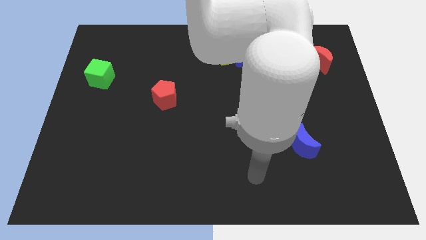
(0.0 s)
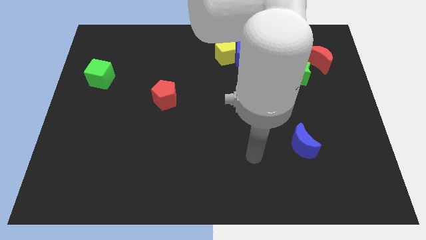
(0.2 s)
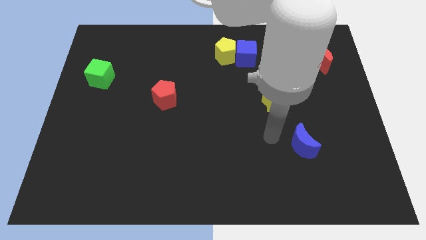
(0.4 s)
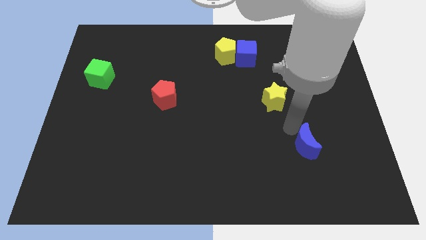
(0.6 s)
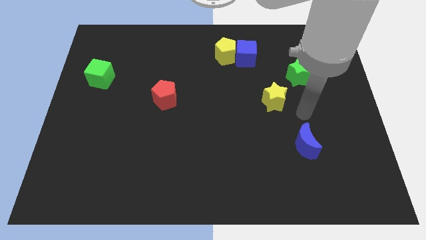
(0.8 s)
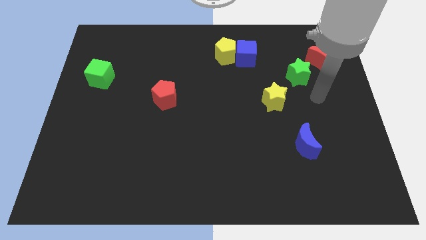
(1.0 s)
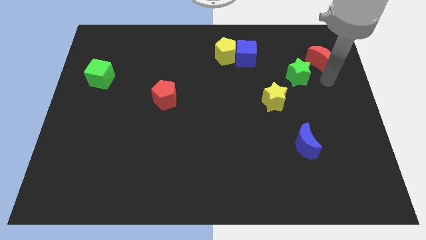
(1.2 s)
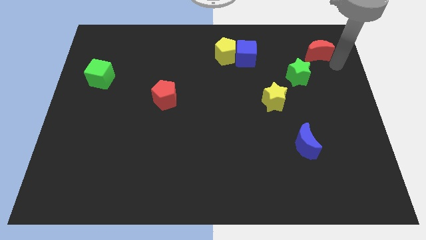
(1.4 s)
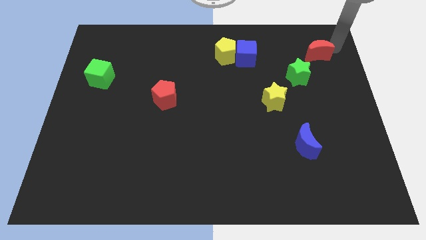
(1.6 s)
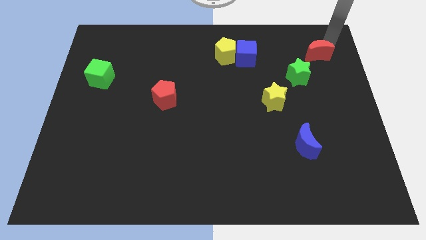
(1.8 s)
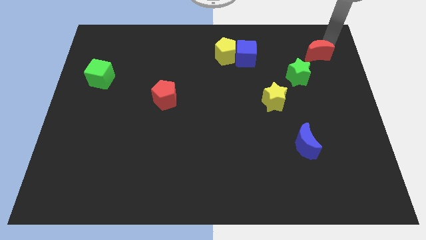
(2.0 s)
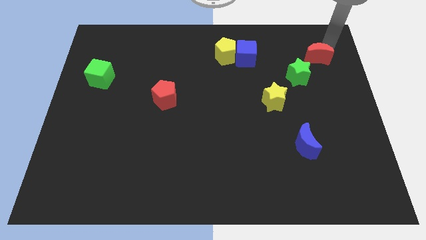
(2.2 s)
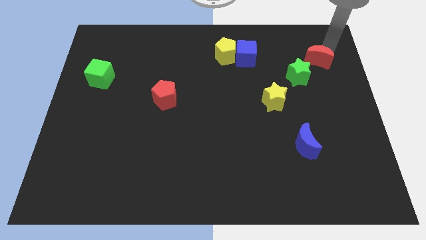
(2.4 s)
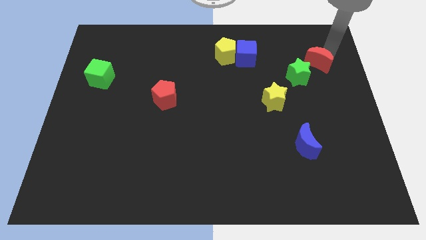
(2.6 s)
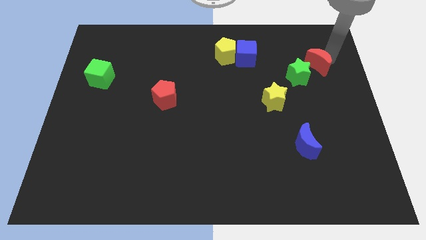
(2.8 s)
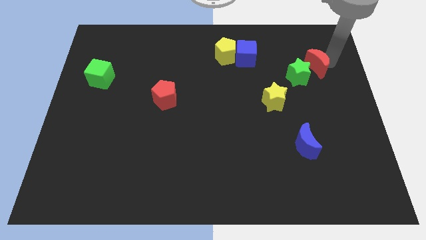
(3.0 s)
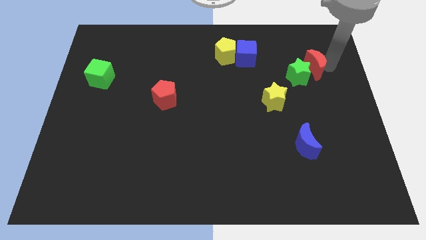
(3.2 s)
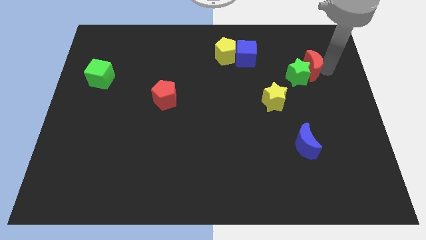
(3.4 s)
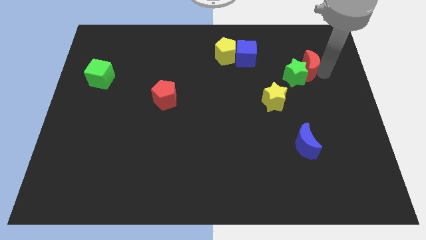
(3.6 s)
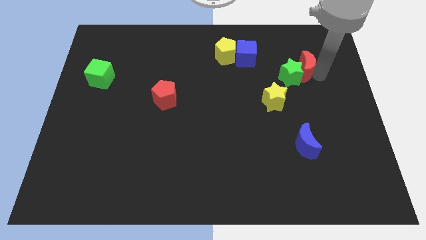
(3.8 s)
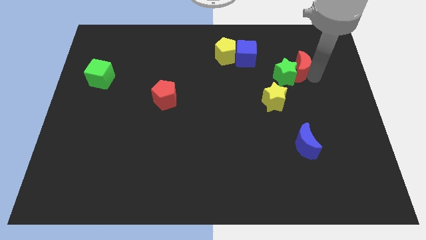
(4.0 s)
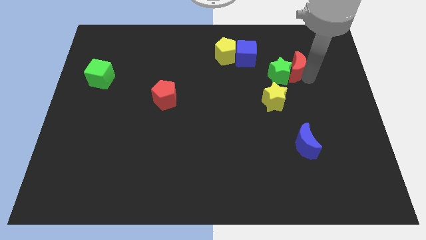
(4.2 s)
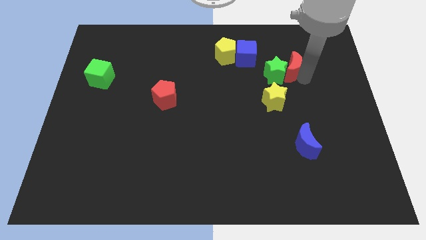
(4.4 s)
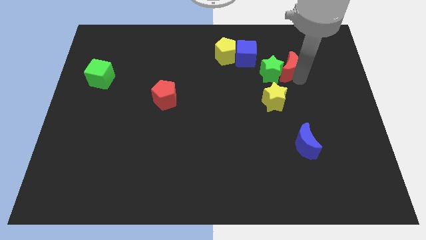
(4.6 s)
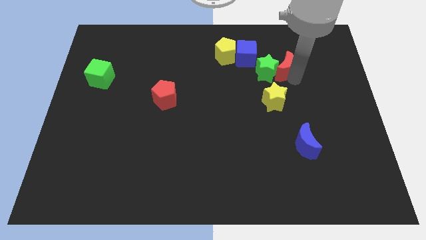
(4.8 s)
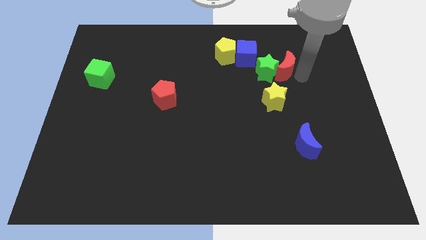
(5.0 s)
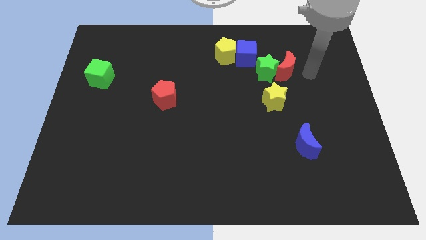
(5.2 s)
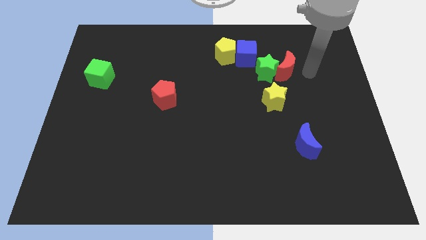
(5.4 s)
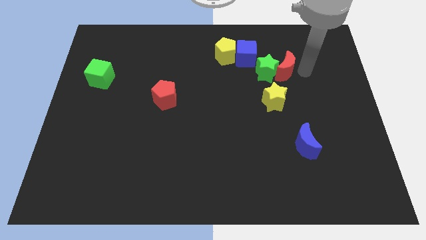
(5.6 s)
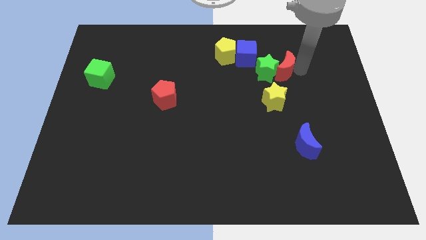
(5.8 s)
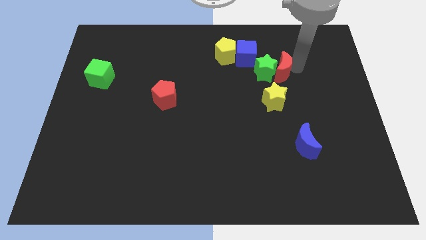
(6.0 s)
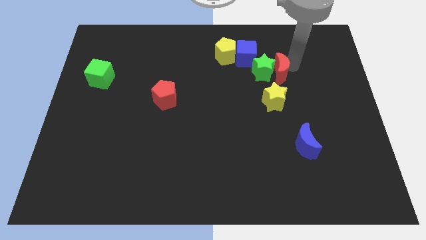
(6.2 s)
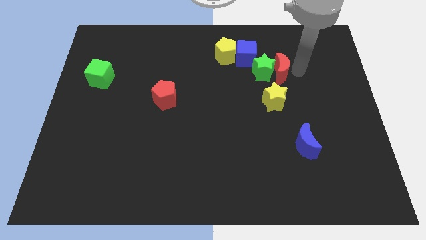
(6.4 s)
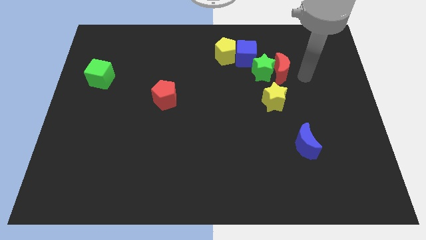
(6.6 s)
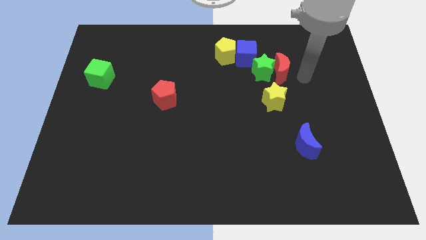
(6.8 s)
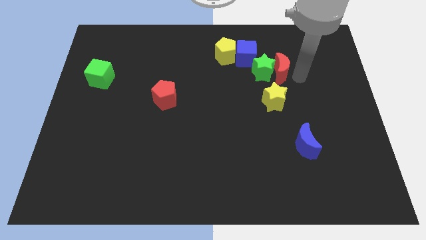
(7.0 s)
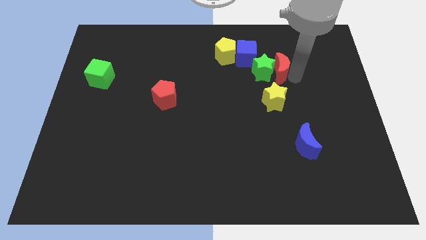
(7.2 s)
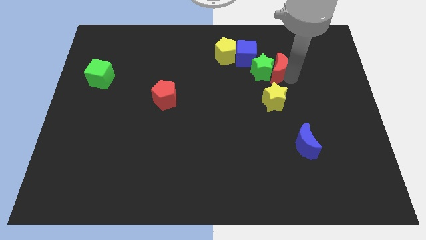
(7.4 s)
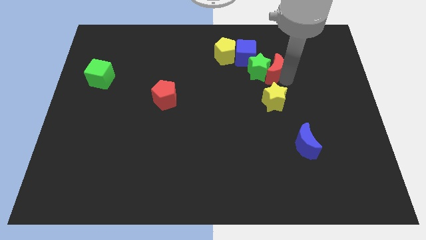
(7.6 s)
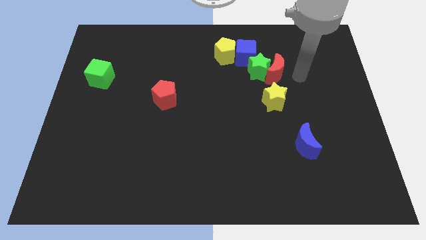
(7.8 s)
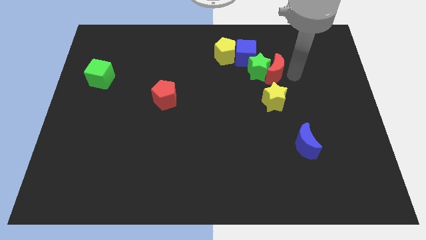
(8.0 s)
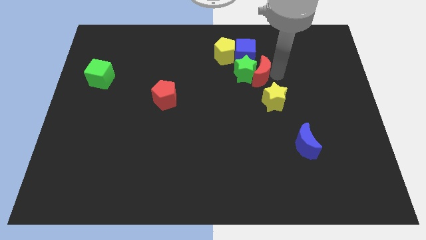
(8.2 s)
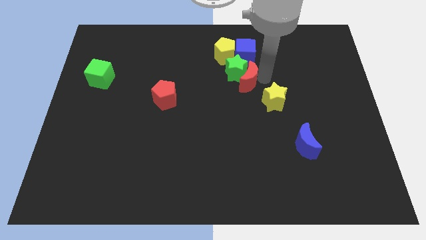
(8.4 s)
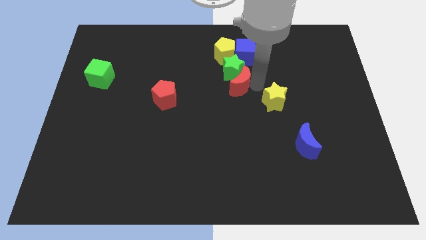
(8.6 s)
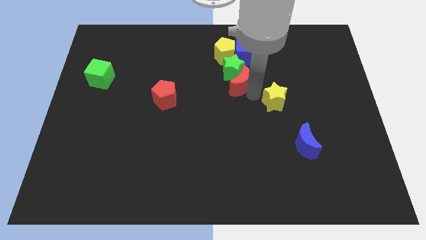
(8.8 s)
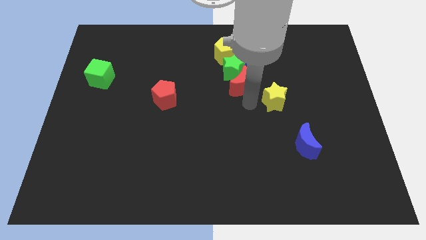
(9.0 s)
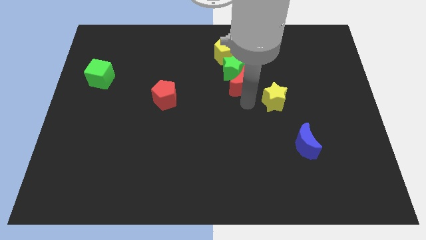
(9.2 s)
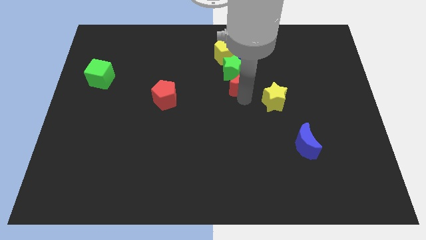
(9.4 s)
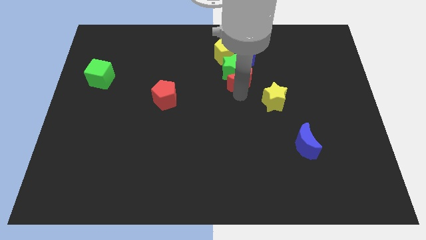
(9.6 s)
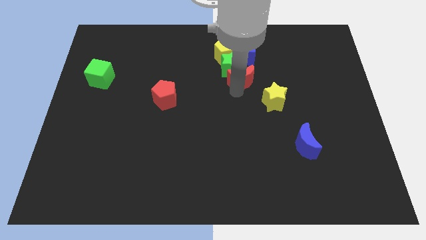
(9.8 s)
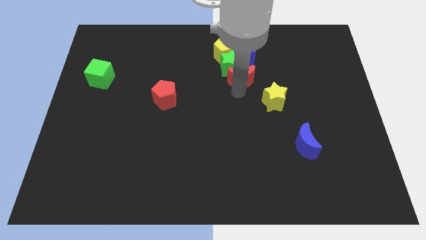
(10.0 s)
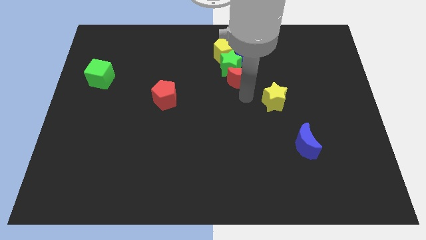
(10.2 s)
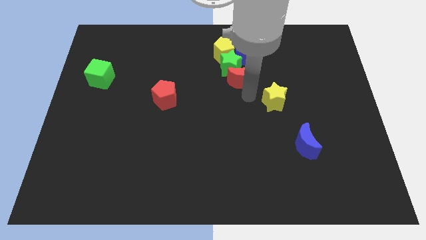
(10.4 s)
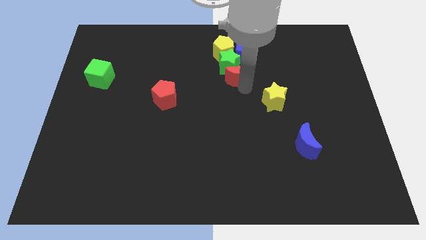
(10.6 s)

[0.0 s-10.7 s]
slide the red moon left

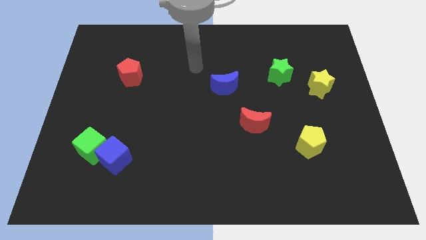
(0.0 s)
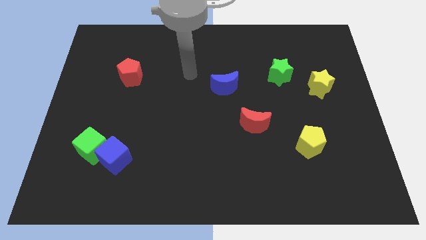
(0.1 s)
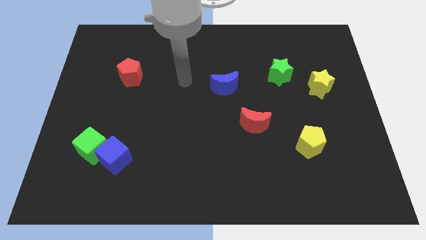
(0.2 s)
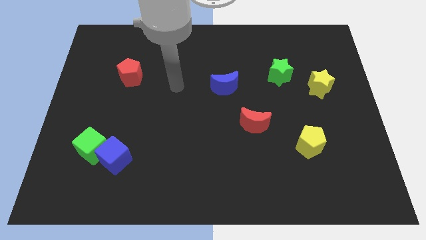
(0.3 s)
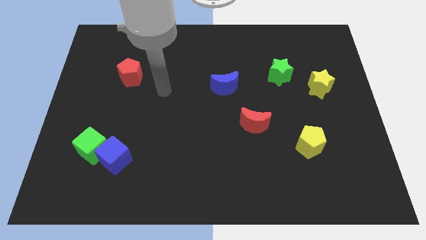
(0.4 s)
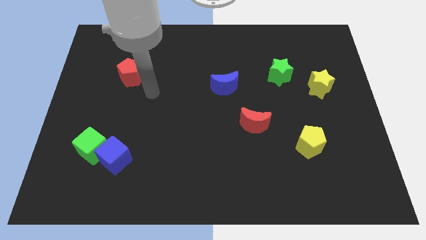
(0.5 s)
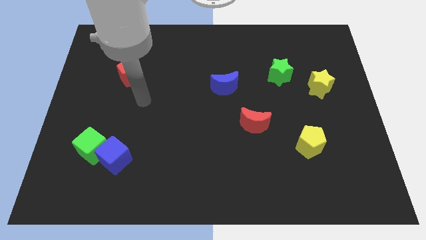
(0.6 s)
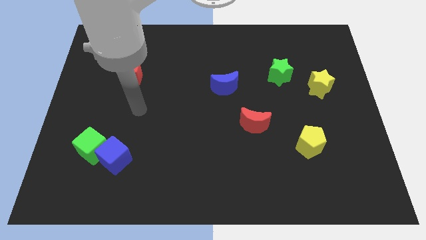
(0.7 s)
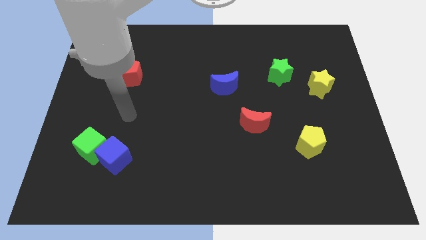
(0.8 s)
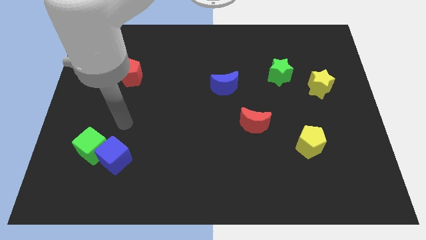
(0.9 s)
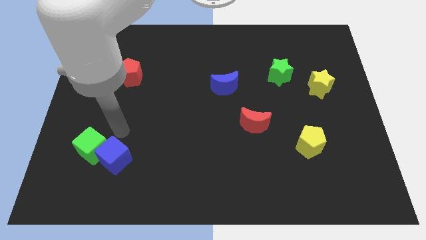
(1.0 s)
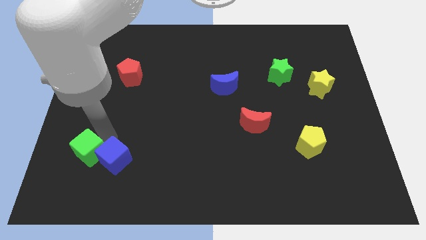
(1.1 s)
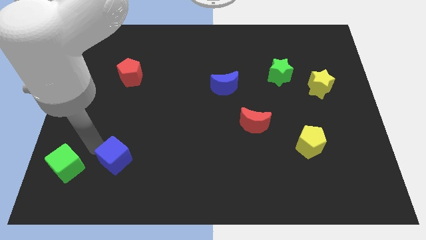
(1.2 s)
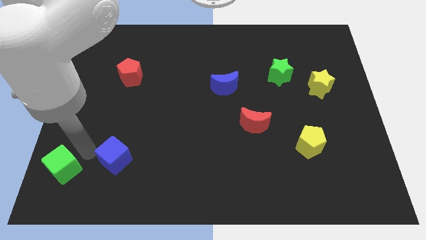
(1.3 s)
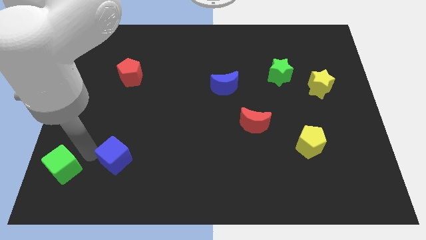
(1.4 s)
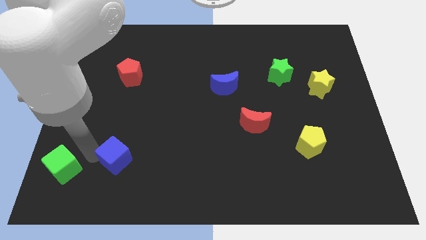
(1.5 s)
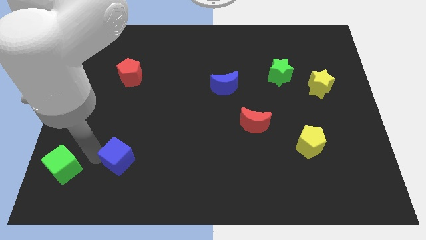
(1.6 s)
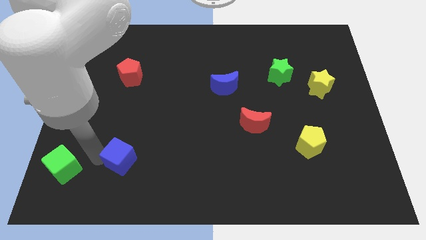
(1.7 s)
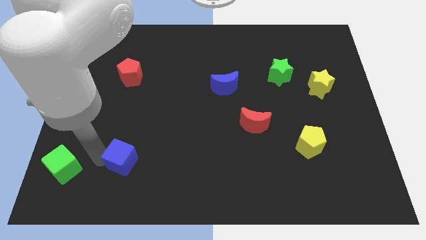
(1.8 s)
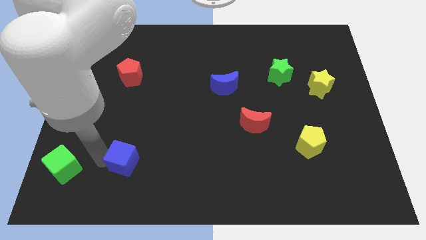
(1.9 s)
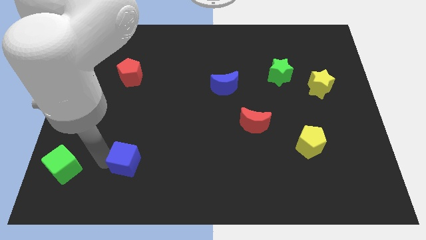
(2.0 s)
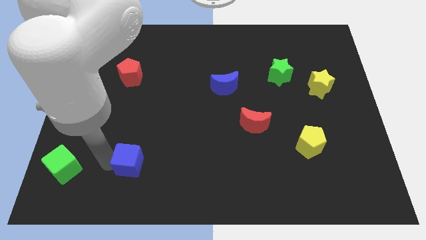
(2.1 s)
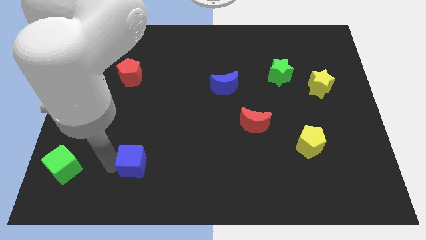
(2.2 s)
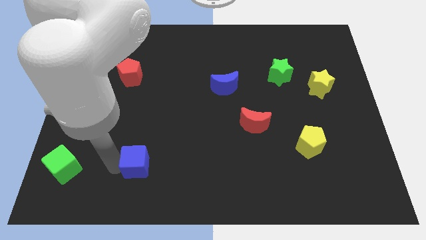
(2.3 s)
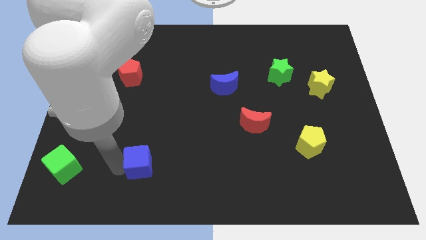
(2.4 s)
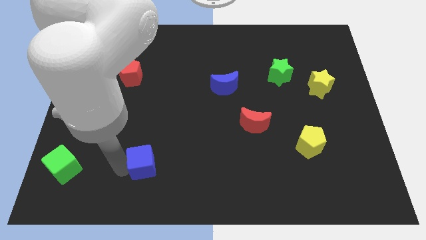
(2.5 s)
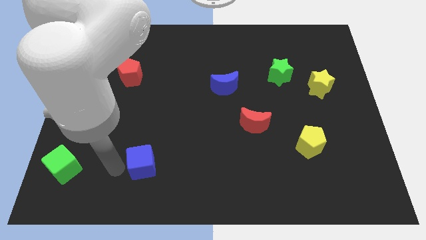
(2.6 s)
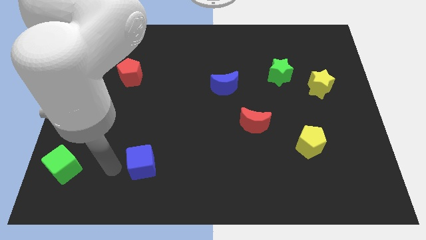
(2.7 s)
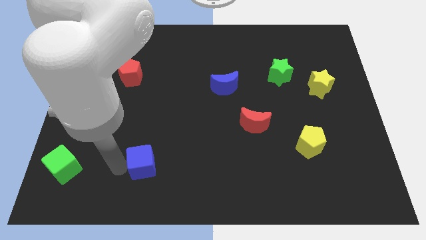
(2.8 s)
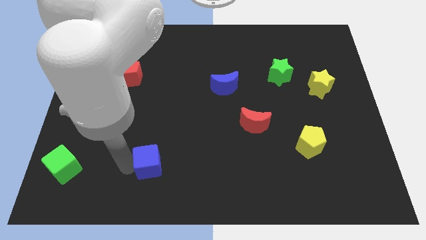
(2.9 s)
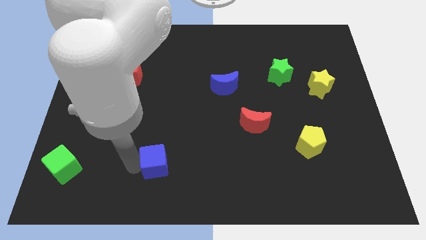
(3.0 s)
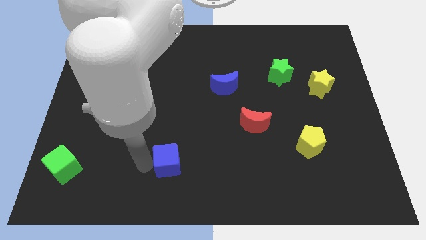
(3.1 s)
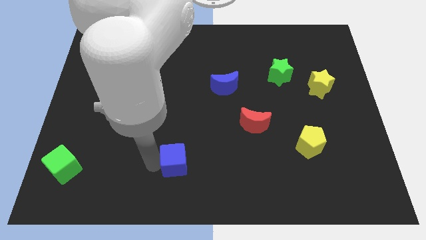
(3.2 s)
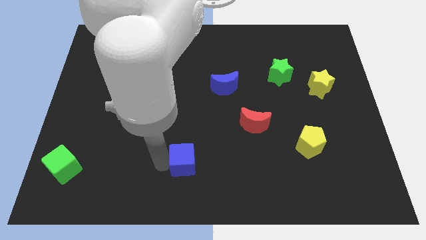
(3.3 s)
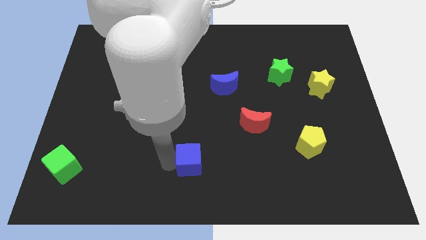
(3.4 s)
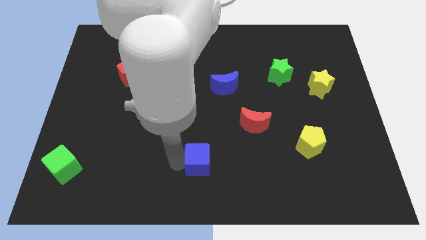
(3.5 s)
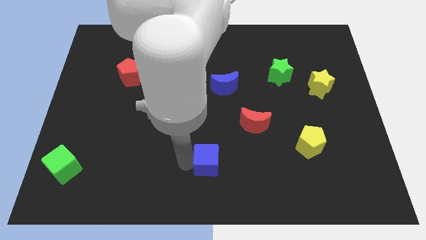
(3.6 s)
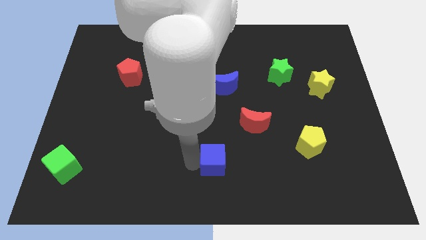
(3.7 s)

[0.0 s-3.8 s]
push the blue cube right
